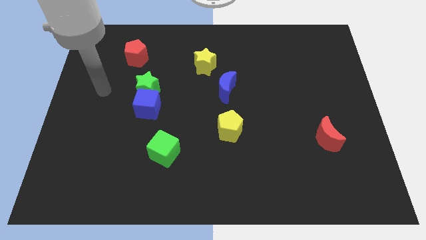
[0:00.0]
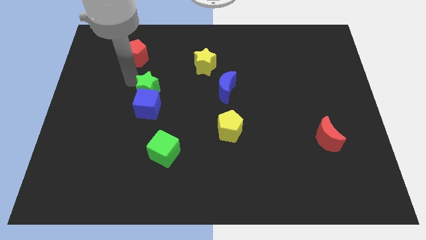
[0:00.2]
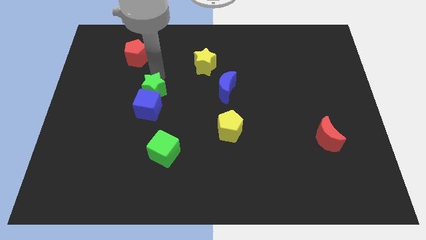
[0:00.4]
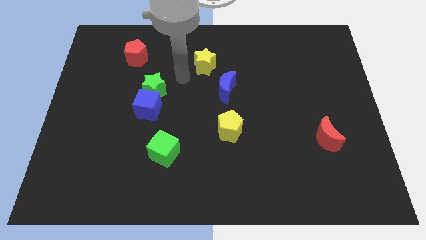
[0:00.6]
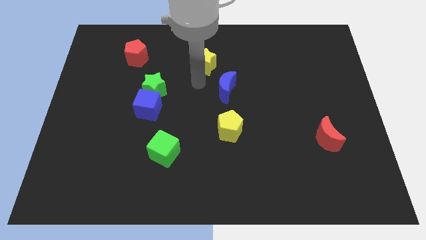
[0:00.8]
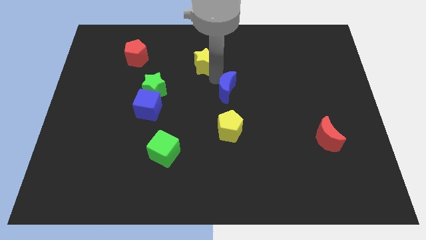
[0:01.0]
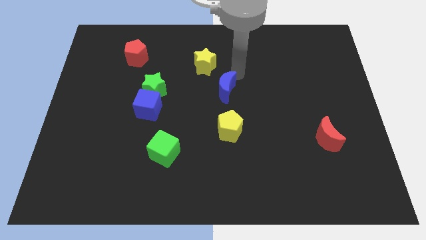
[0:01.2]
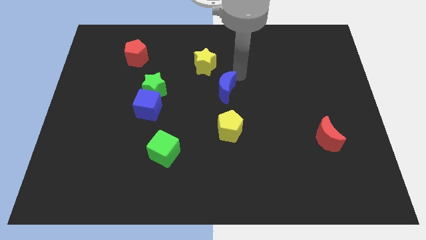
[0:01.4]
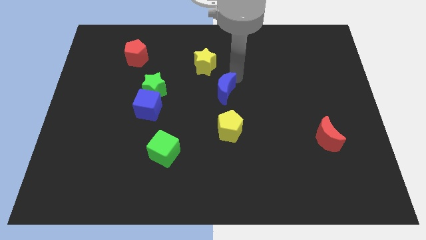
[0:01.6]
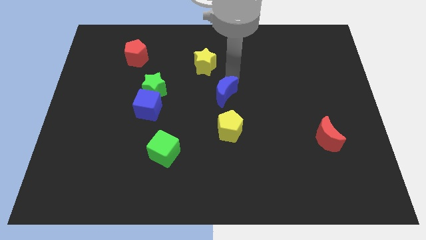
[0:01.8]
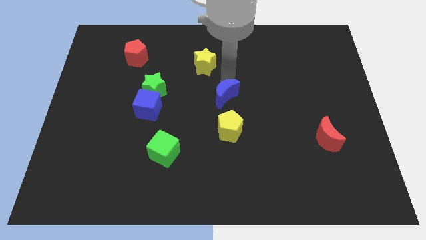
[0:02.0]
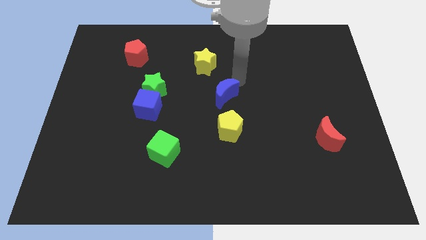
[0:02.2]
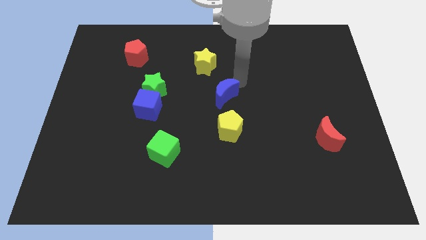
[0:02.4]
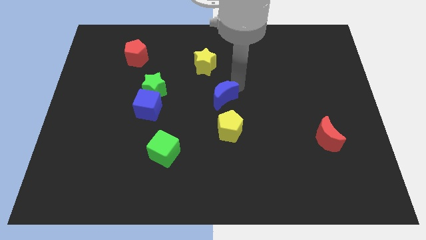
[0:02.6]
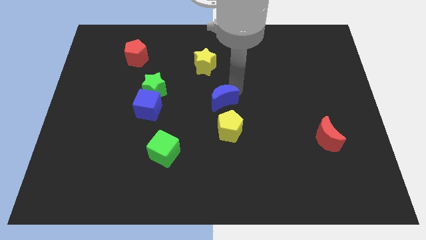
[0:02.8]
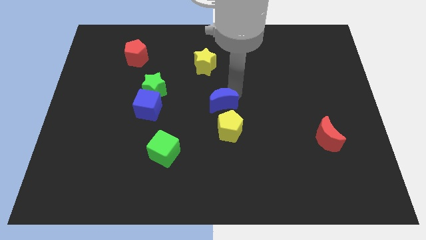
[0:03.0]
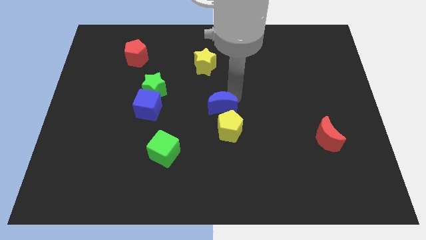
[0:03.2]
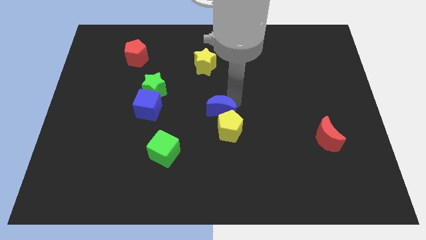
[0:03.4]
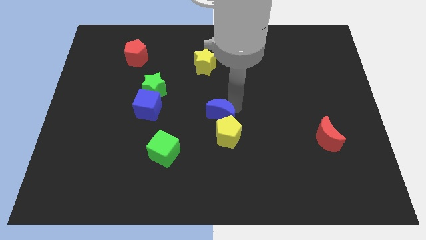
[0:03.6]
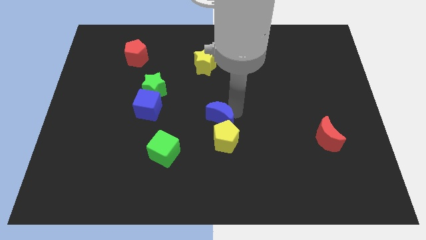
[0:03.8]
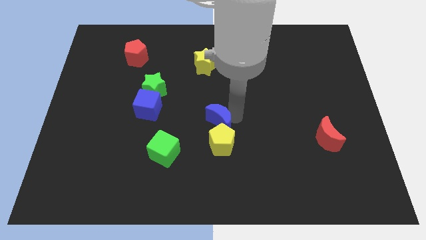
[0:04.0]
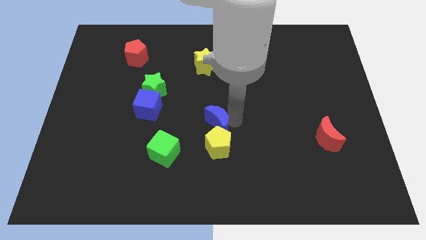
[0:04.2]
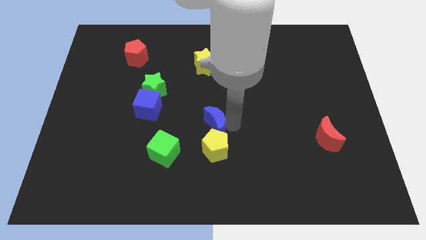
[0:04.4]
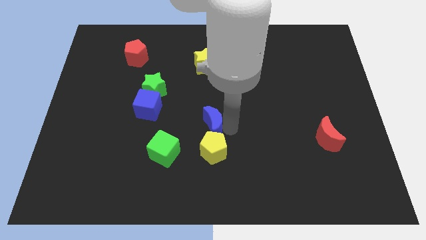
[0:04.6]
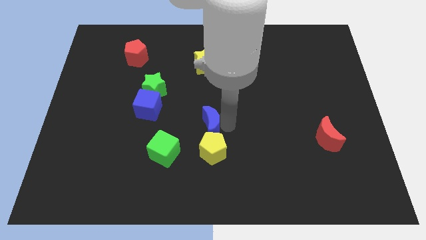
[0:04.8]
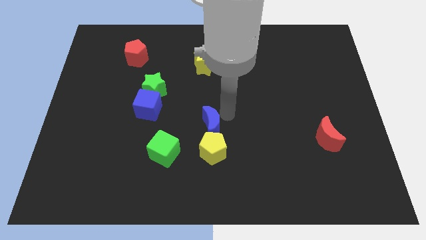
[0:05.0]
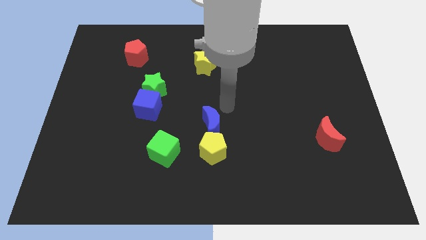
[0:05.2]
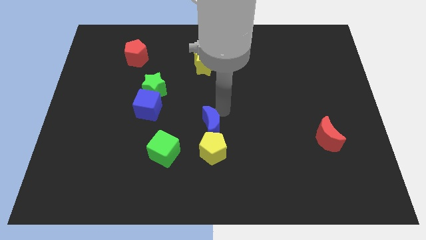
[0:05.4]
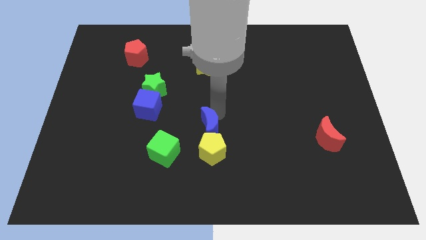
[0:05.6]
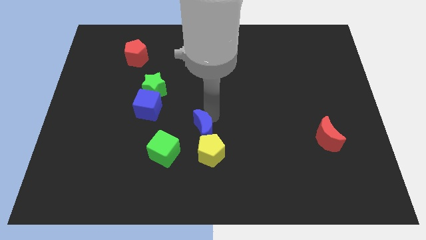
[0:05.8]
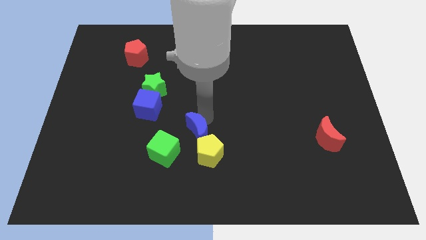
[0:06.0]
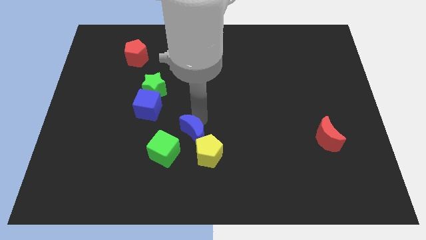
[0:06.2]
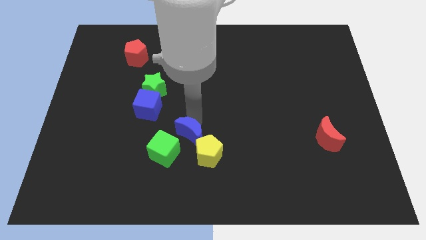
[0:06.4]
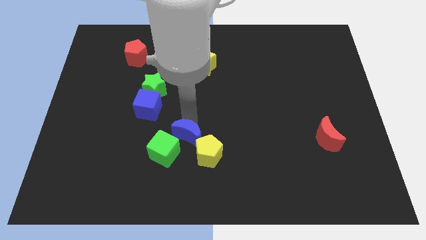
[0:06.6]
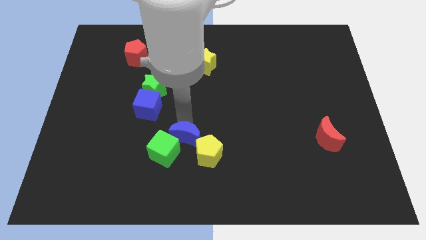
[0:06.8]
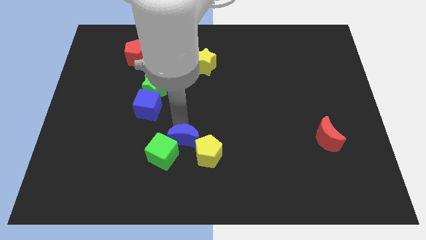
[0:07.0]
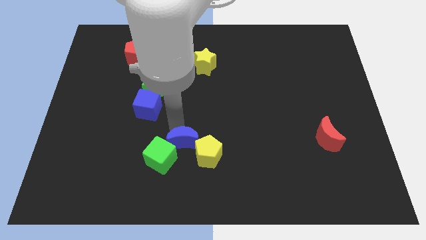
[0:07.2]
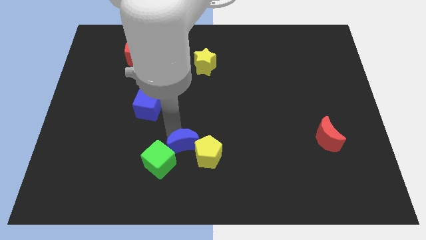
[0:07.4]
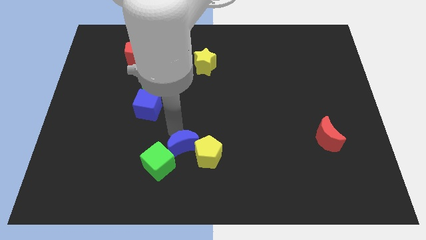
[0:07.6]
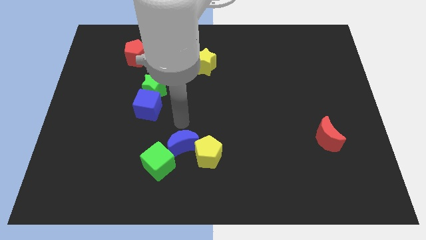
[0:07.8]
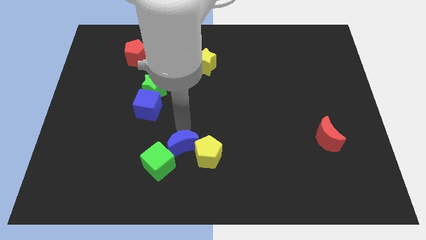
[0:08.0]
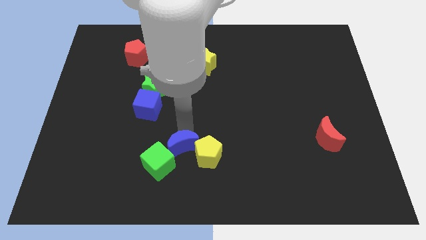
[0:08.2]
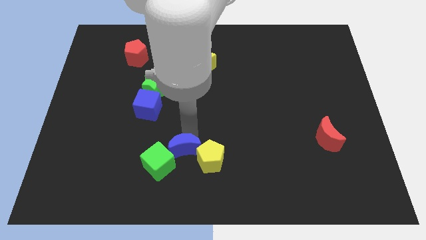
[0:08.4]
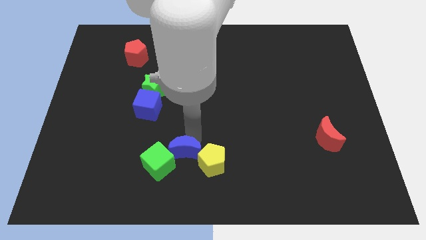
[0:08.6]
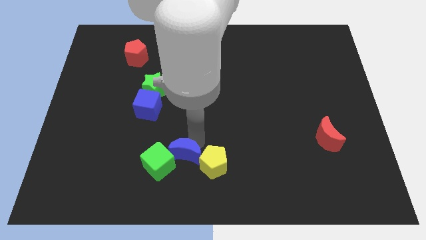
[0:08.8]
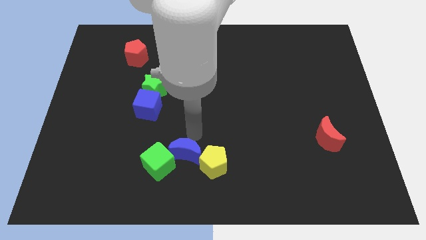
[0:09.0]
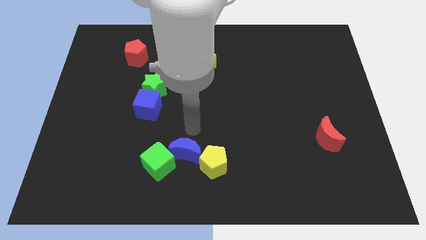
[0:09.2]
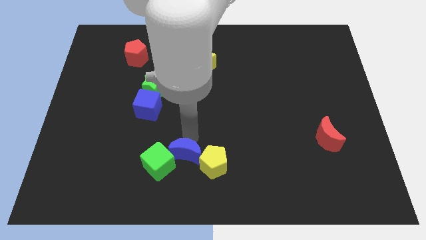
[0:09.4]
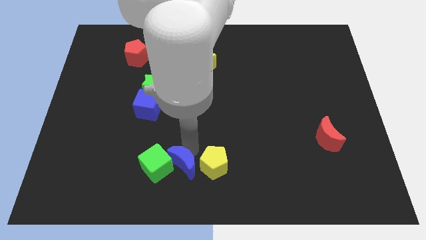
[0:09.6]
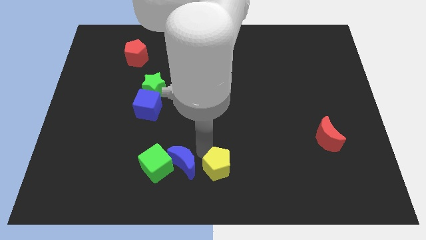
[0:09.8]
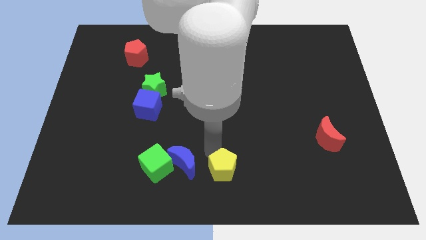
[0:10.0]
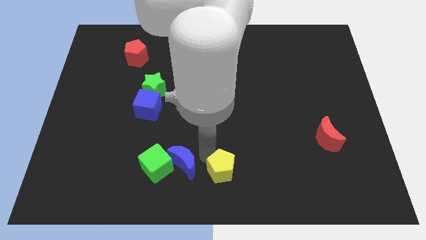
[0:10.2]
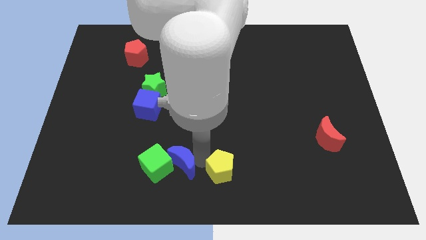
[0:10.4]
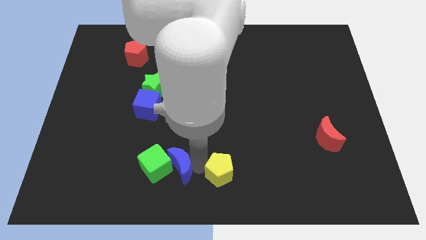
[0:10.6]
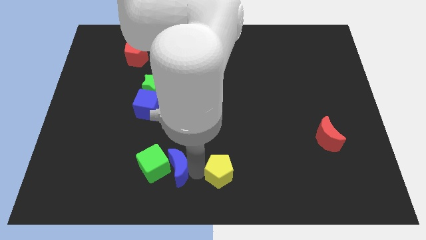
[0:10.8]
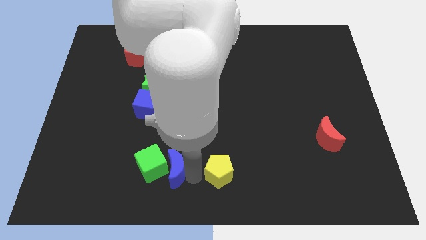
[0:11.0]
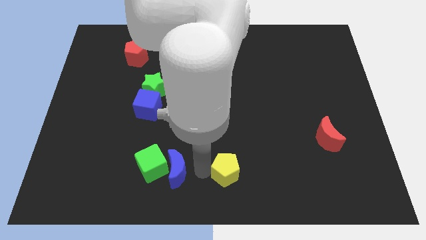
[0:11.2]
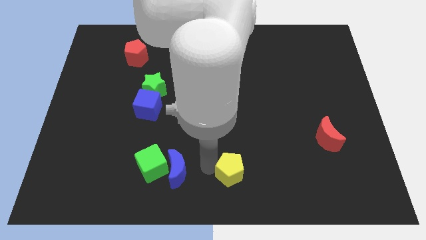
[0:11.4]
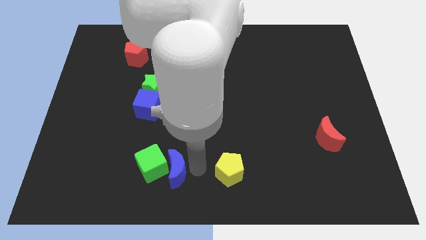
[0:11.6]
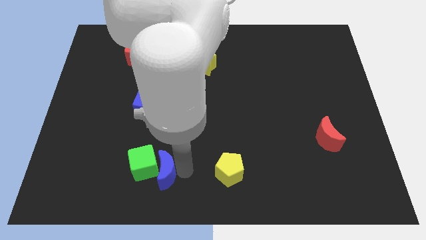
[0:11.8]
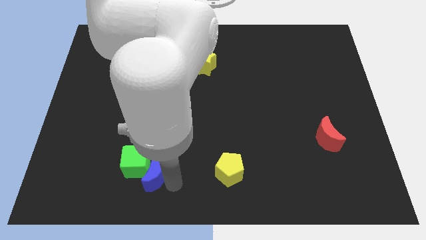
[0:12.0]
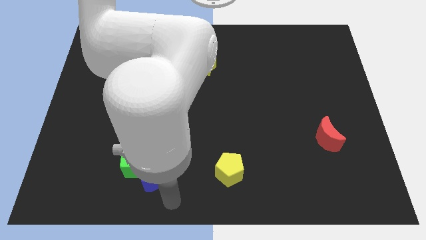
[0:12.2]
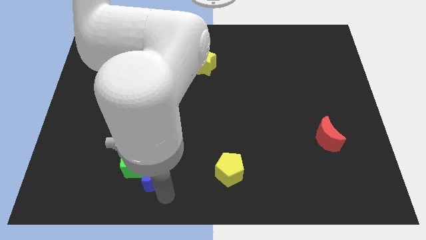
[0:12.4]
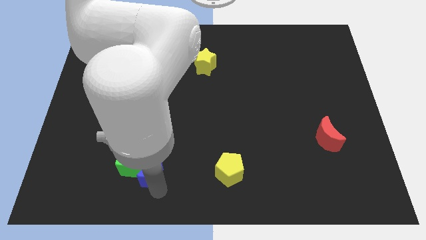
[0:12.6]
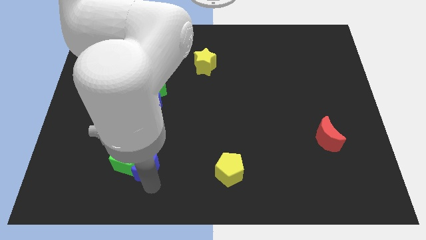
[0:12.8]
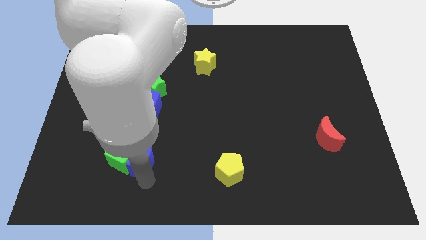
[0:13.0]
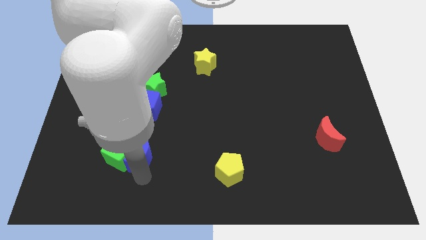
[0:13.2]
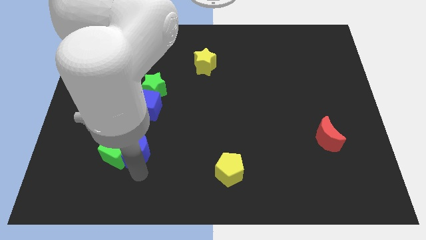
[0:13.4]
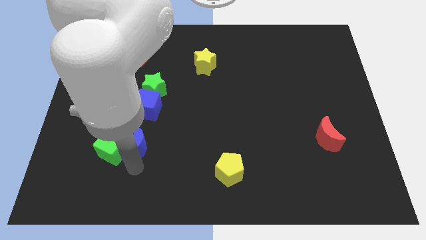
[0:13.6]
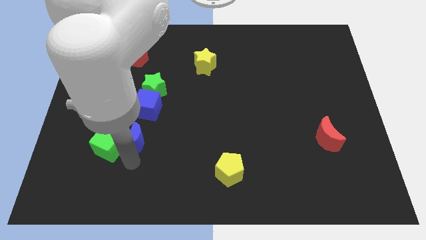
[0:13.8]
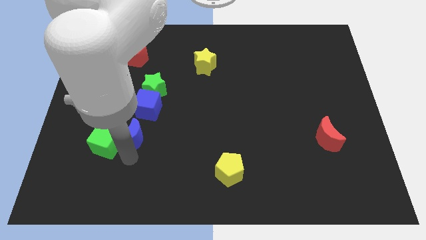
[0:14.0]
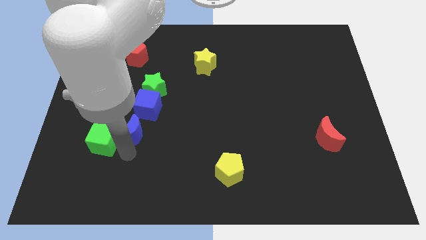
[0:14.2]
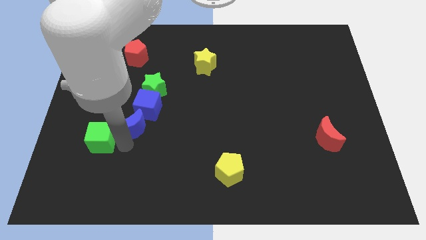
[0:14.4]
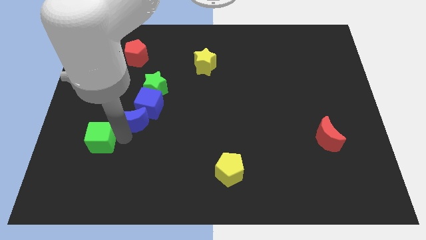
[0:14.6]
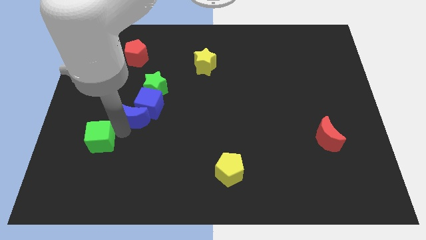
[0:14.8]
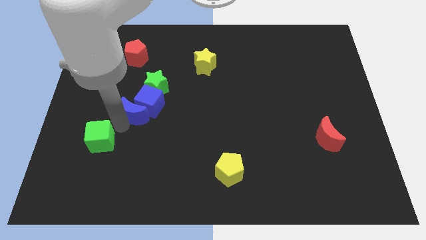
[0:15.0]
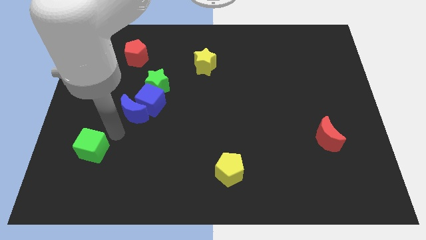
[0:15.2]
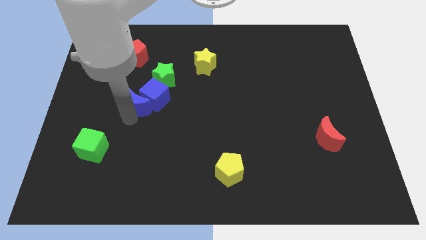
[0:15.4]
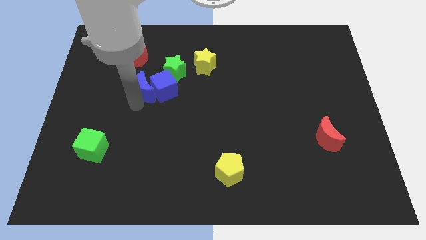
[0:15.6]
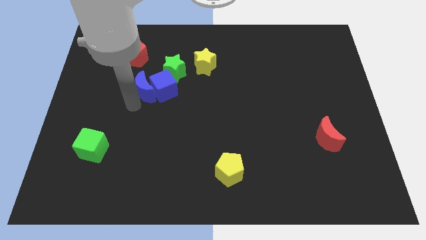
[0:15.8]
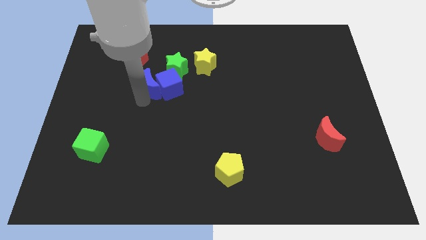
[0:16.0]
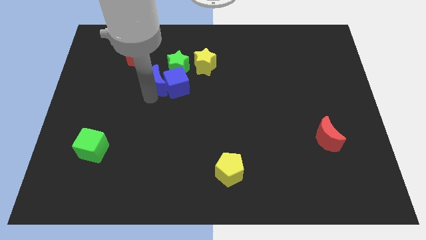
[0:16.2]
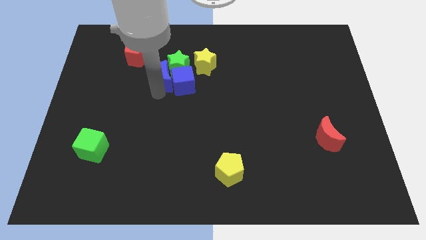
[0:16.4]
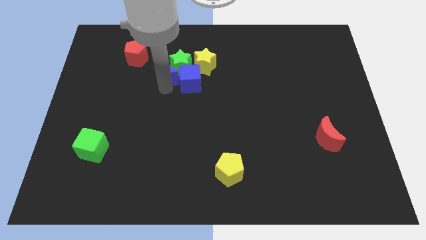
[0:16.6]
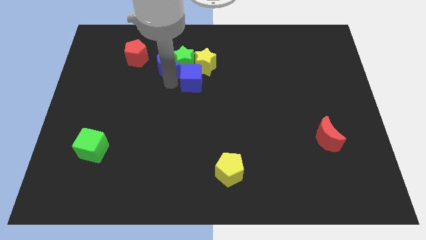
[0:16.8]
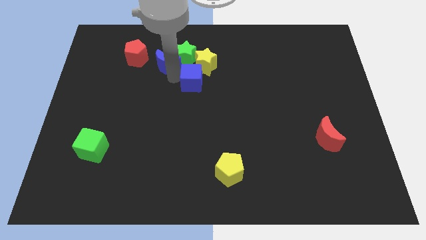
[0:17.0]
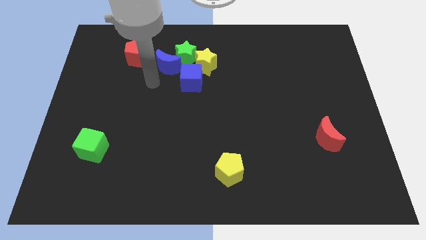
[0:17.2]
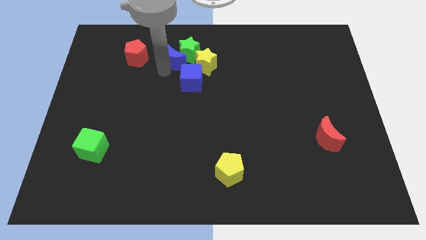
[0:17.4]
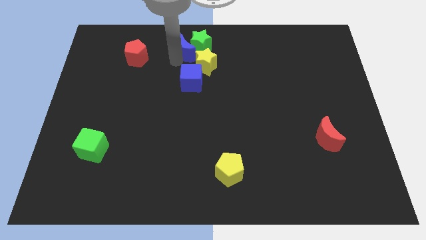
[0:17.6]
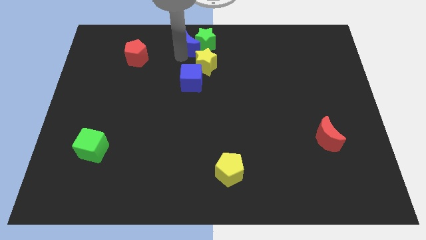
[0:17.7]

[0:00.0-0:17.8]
put the blue moon to the towards your base
